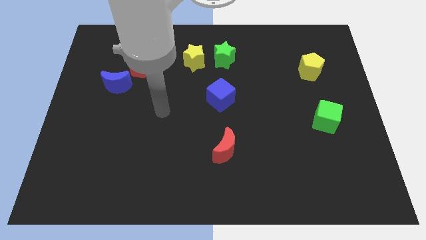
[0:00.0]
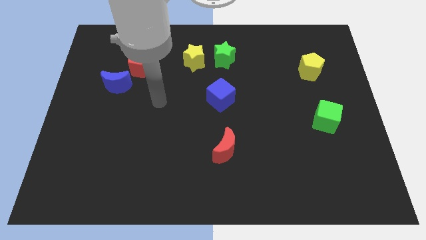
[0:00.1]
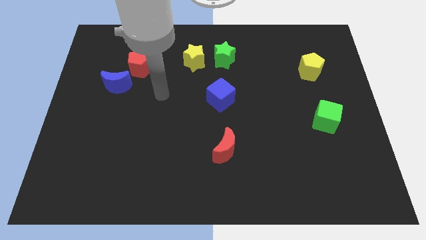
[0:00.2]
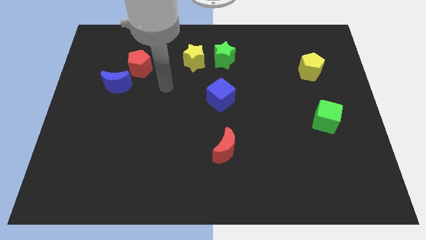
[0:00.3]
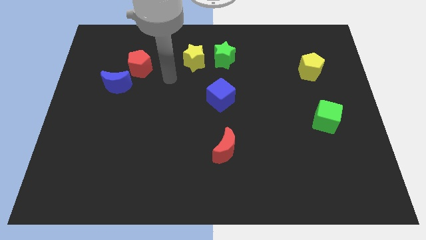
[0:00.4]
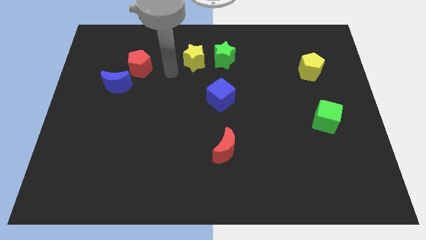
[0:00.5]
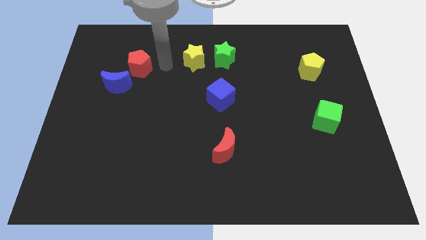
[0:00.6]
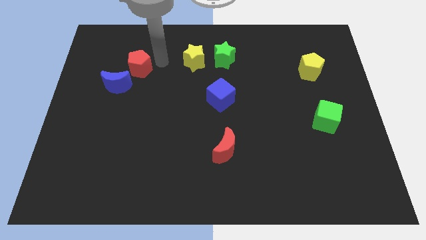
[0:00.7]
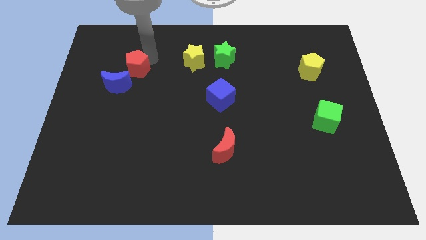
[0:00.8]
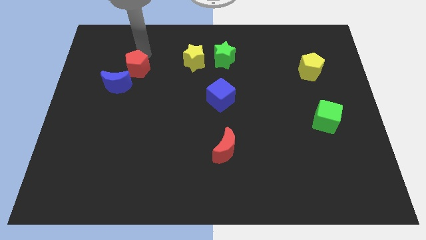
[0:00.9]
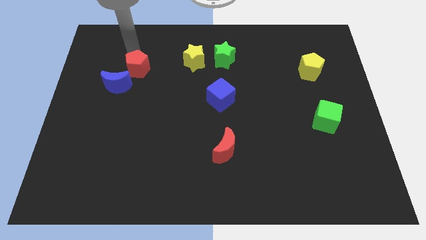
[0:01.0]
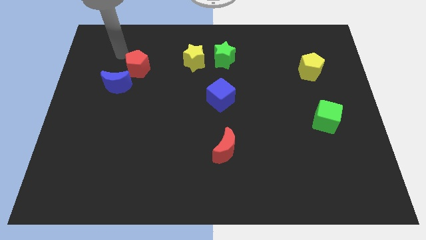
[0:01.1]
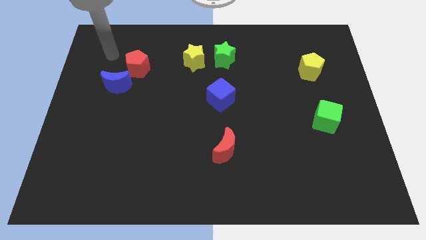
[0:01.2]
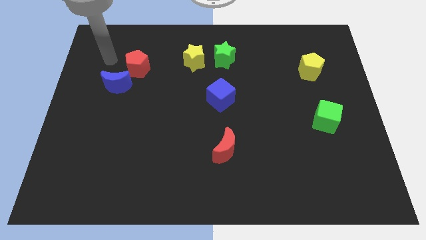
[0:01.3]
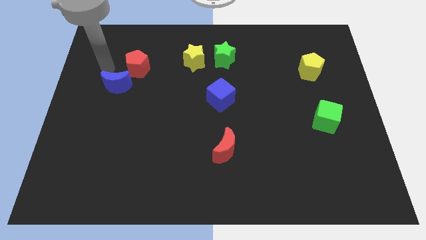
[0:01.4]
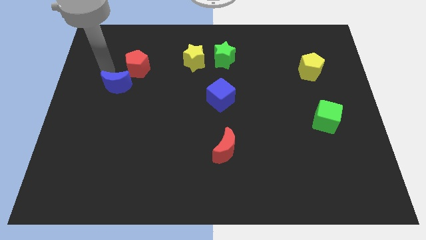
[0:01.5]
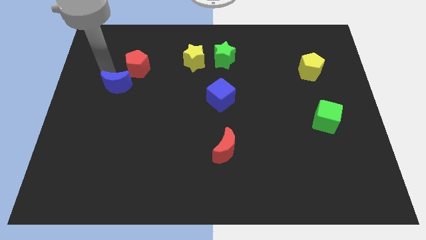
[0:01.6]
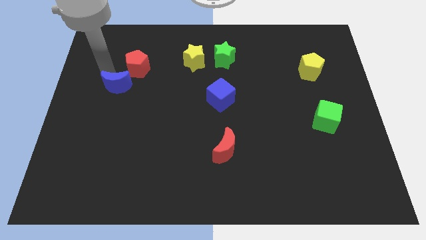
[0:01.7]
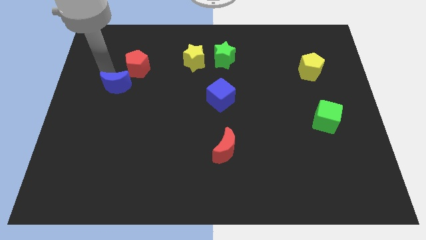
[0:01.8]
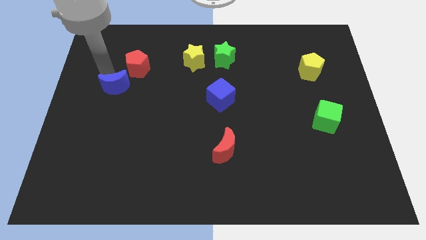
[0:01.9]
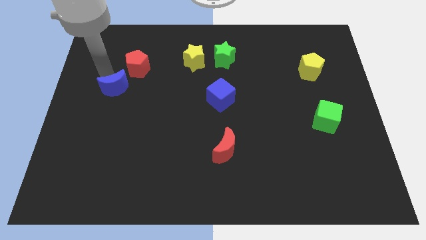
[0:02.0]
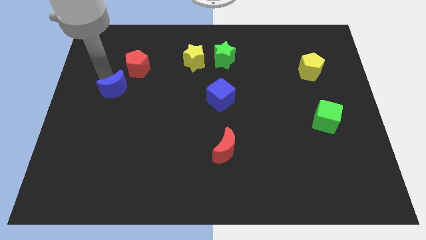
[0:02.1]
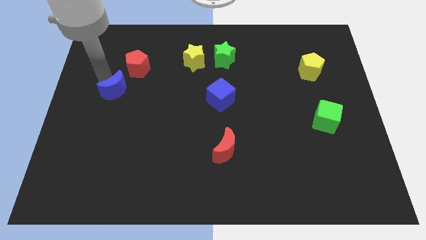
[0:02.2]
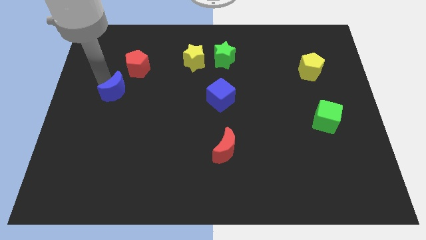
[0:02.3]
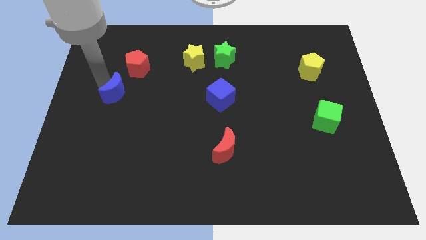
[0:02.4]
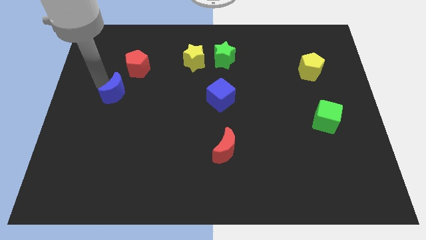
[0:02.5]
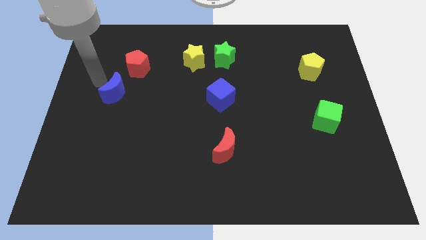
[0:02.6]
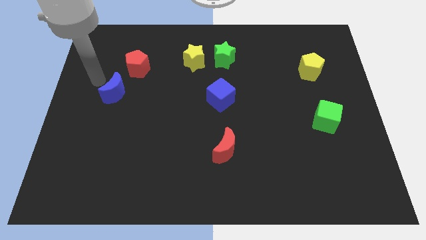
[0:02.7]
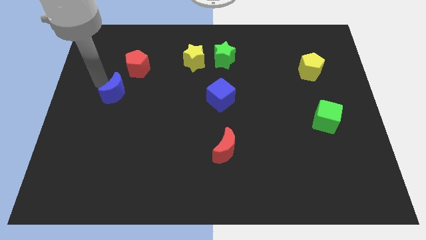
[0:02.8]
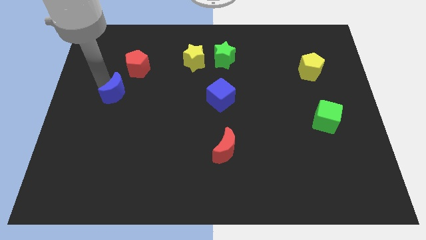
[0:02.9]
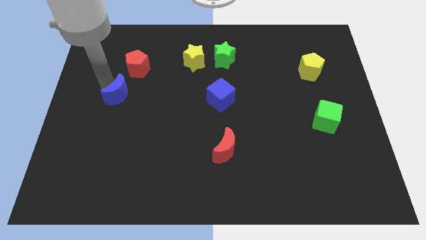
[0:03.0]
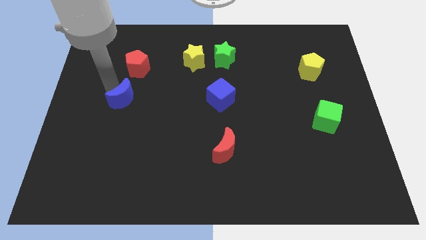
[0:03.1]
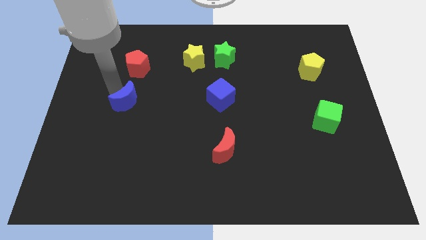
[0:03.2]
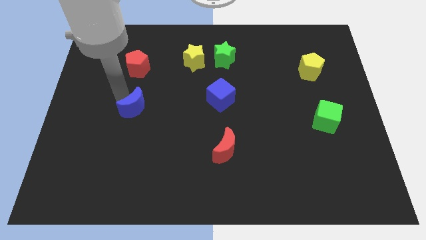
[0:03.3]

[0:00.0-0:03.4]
move the blue moon downwards and then right a bit

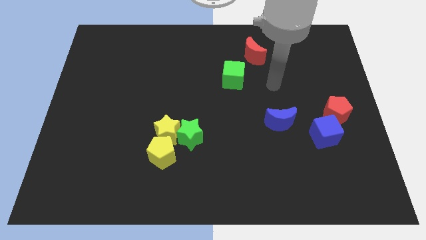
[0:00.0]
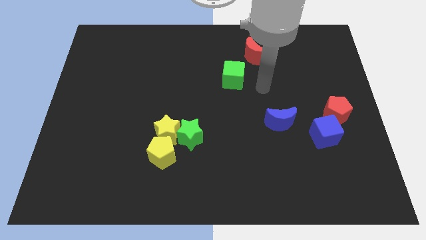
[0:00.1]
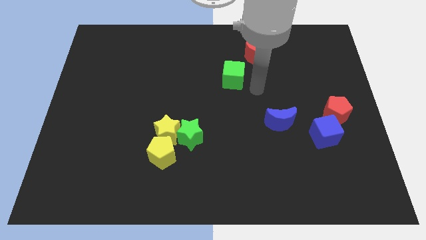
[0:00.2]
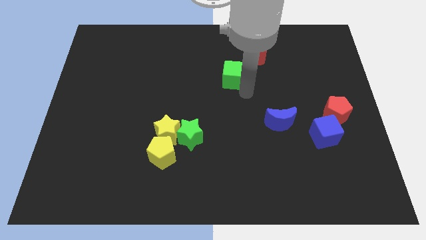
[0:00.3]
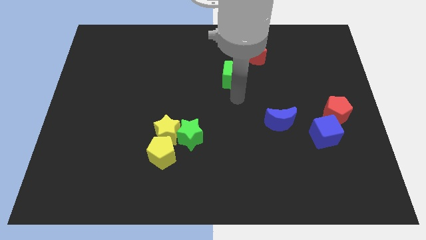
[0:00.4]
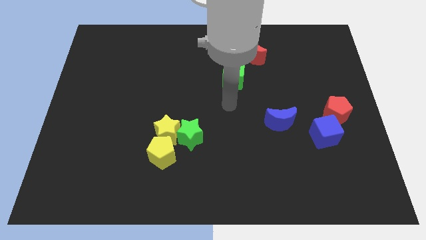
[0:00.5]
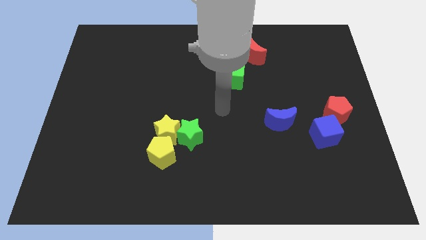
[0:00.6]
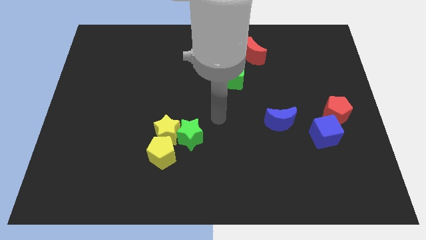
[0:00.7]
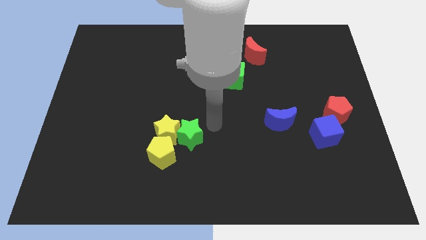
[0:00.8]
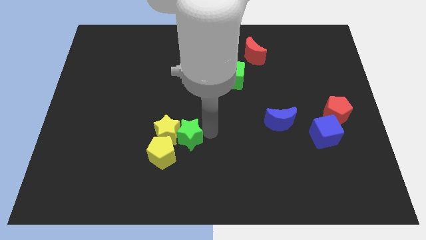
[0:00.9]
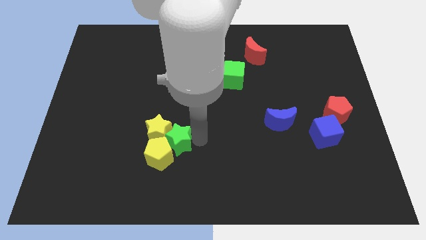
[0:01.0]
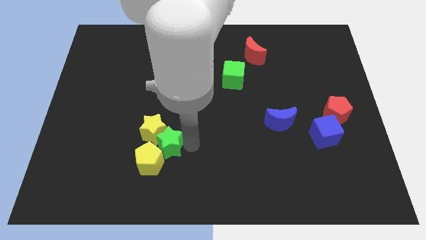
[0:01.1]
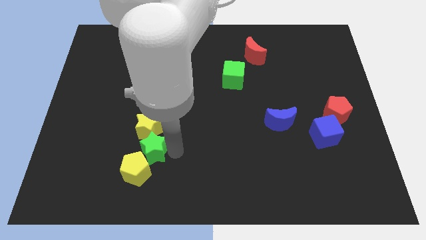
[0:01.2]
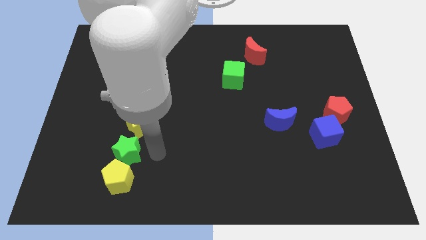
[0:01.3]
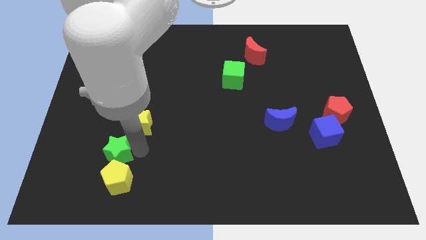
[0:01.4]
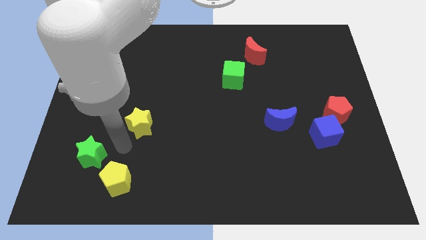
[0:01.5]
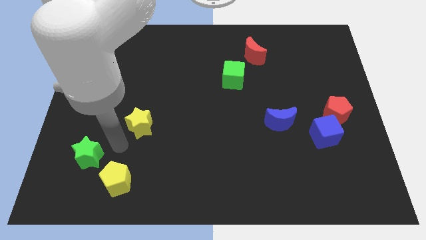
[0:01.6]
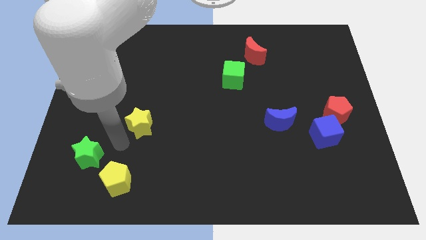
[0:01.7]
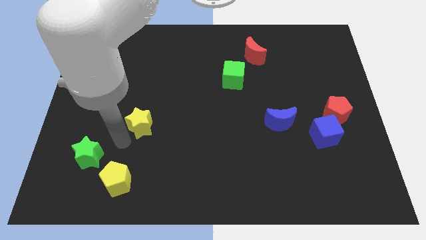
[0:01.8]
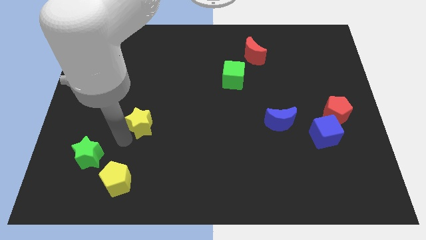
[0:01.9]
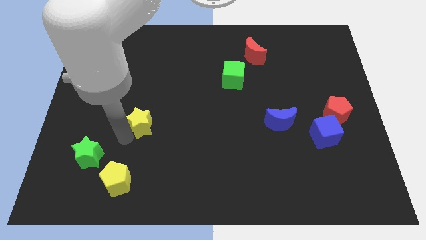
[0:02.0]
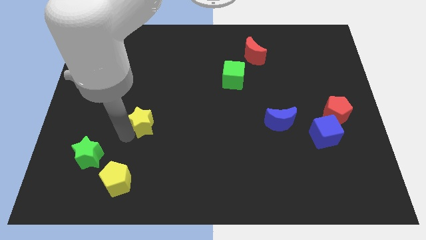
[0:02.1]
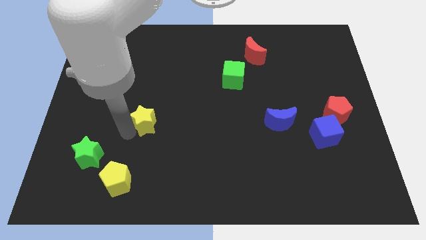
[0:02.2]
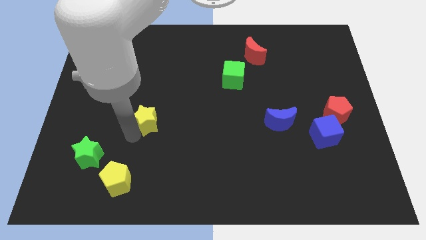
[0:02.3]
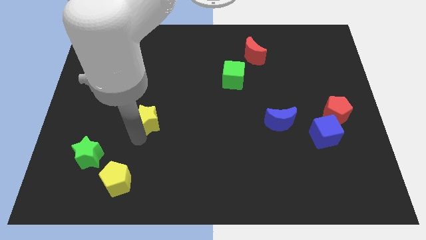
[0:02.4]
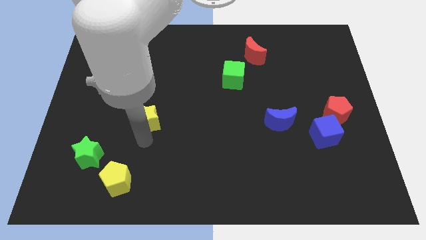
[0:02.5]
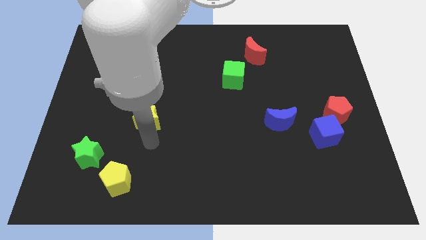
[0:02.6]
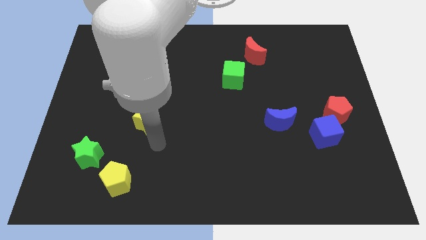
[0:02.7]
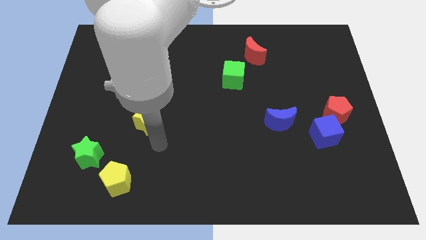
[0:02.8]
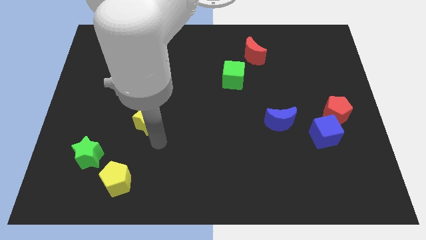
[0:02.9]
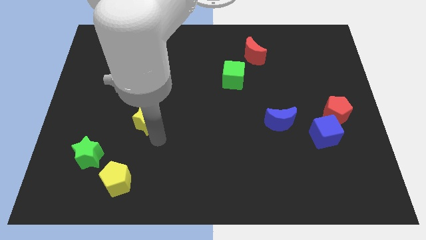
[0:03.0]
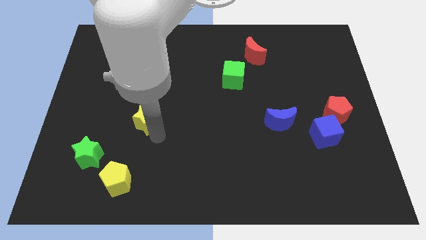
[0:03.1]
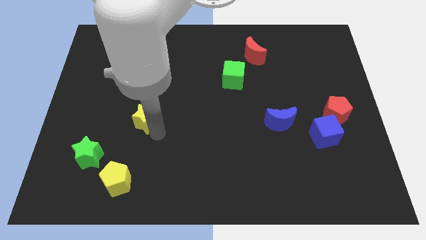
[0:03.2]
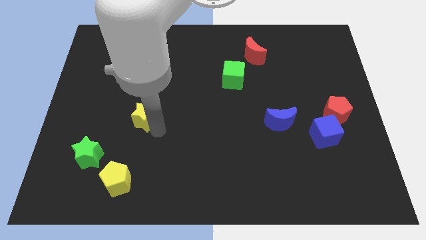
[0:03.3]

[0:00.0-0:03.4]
slightly slide the yellow star up and left

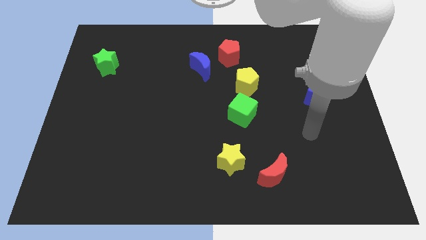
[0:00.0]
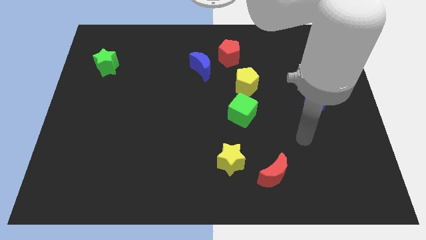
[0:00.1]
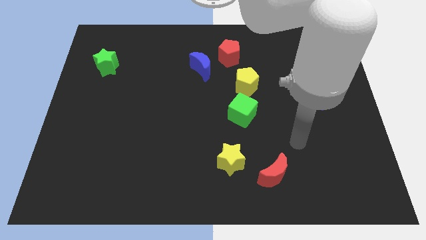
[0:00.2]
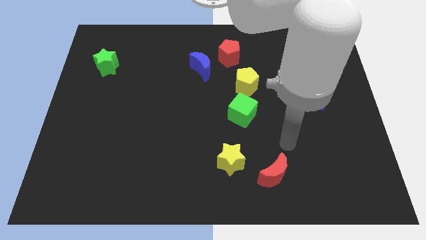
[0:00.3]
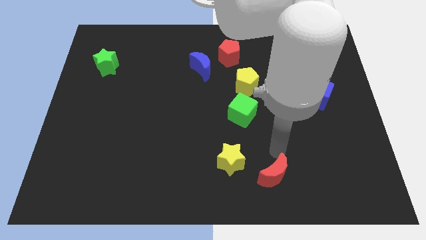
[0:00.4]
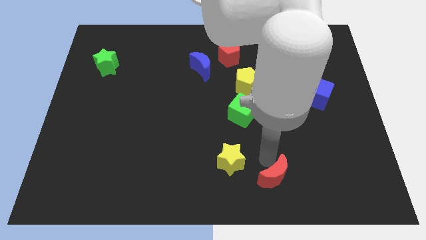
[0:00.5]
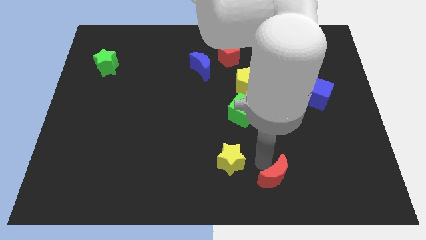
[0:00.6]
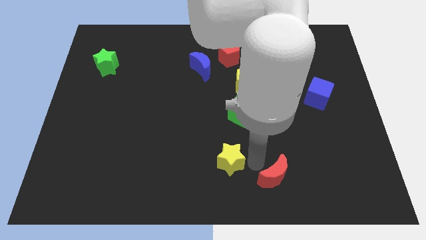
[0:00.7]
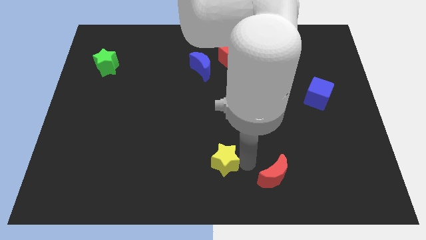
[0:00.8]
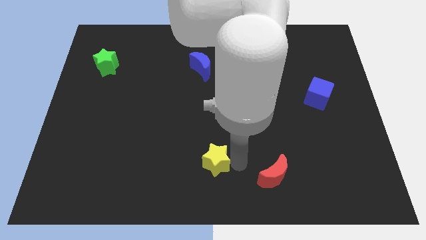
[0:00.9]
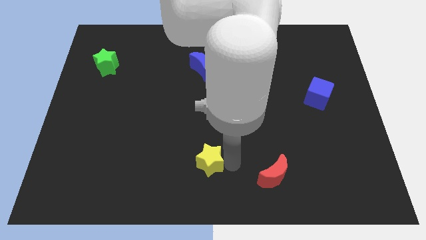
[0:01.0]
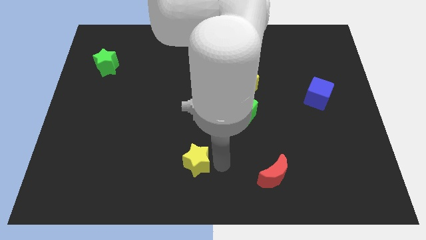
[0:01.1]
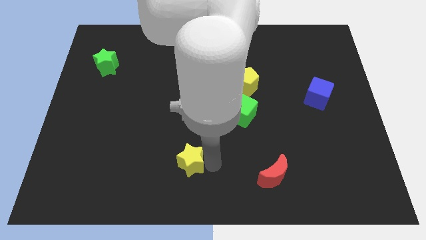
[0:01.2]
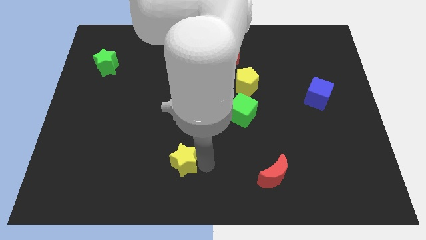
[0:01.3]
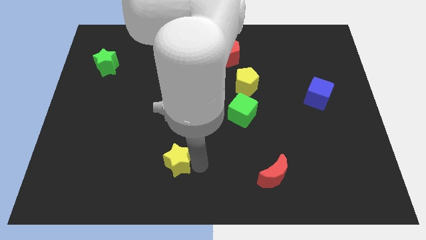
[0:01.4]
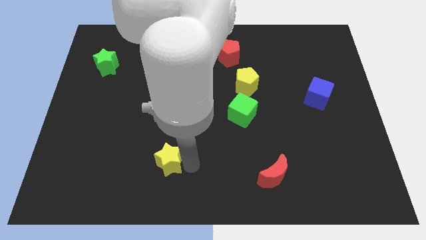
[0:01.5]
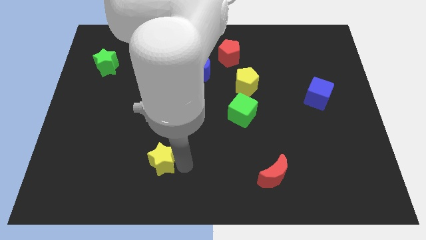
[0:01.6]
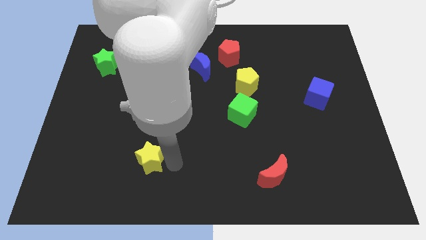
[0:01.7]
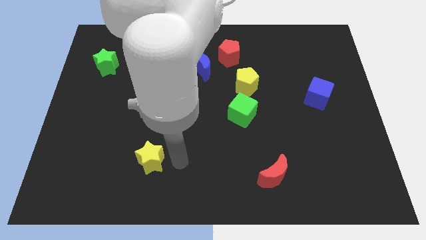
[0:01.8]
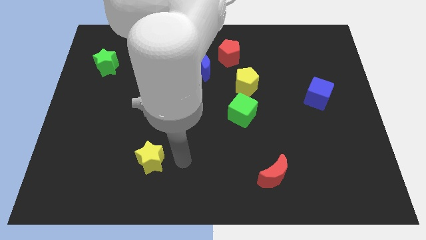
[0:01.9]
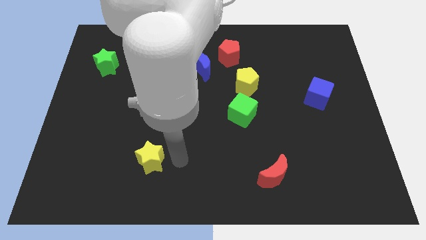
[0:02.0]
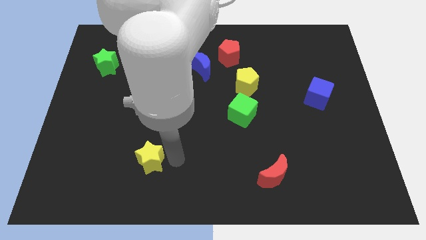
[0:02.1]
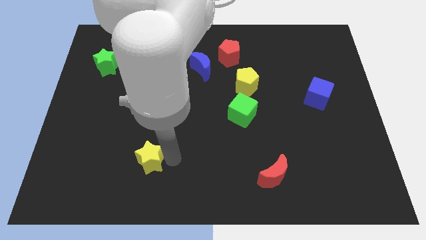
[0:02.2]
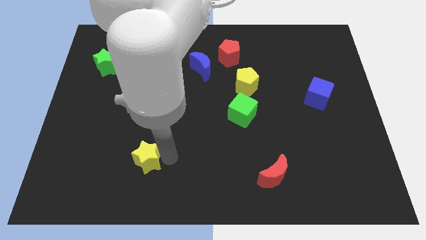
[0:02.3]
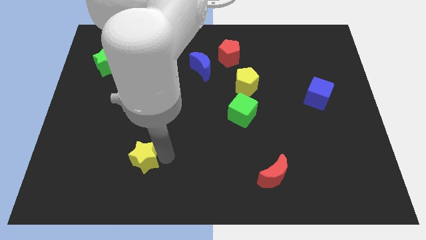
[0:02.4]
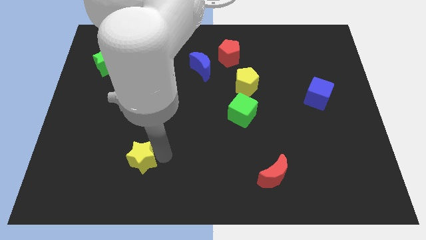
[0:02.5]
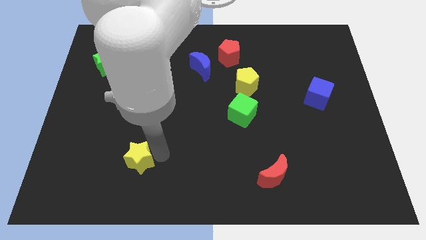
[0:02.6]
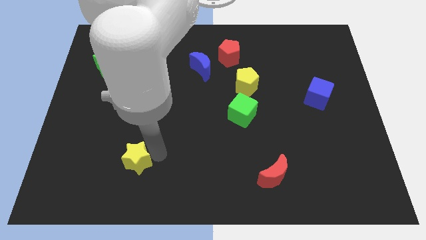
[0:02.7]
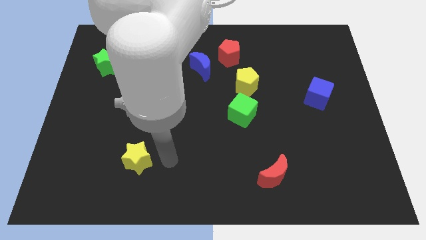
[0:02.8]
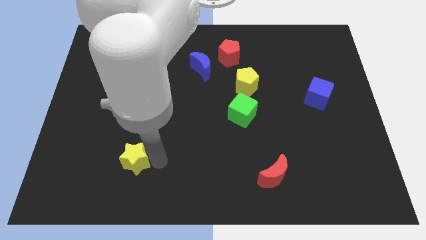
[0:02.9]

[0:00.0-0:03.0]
push the yellow star left
